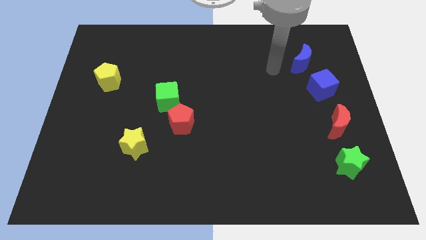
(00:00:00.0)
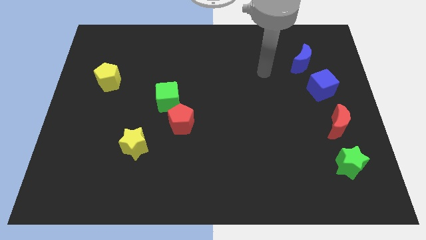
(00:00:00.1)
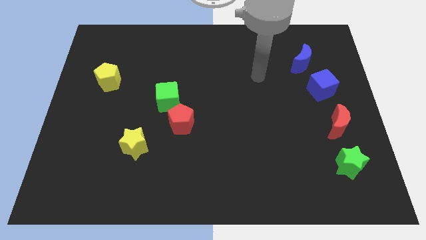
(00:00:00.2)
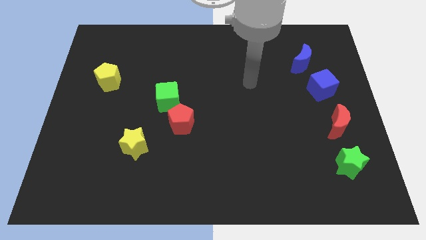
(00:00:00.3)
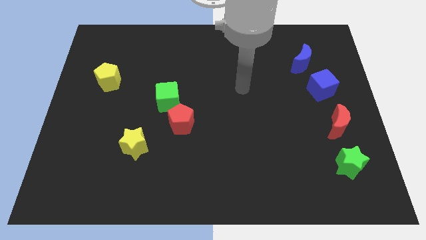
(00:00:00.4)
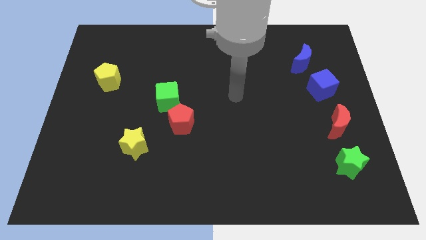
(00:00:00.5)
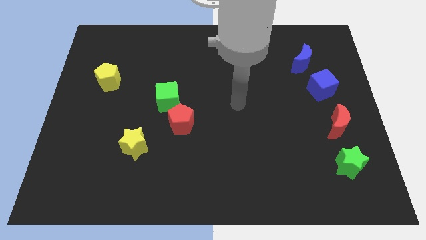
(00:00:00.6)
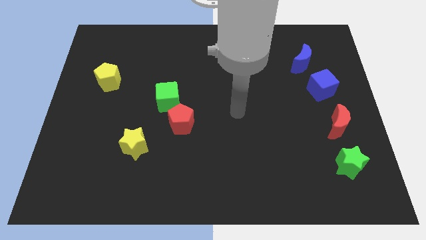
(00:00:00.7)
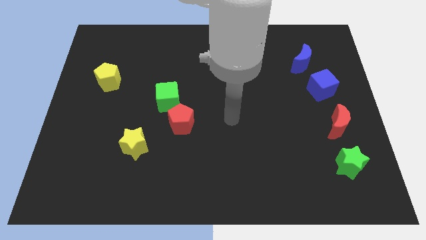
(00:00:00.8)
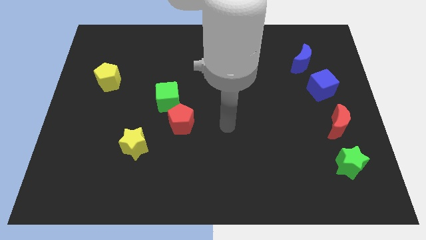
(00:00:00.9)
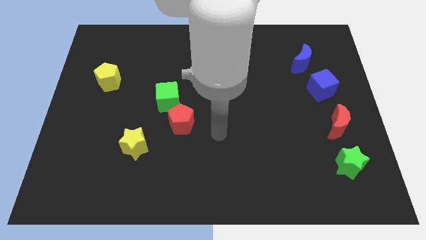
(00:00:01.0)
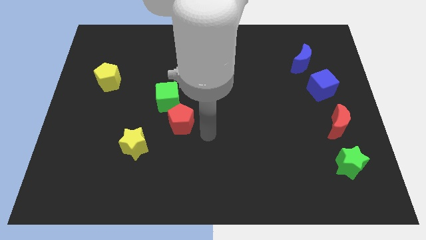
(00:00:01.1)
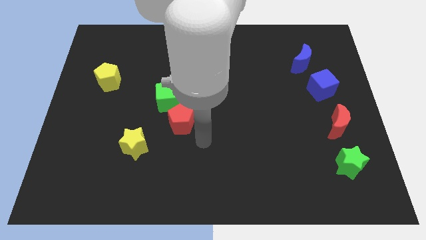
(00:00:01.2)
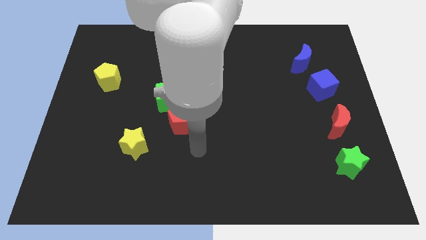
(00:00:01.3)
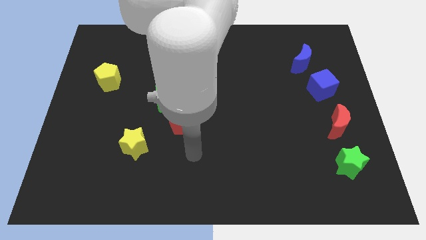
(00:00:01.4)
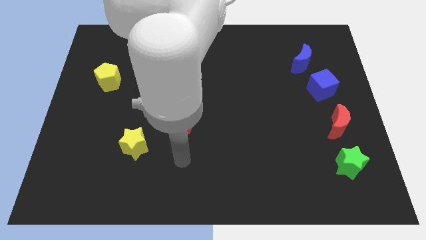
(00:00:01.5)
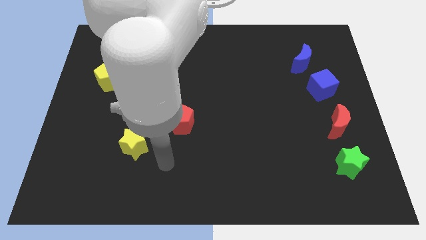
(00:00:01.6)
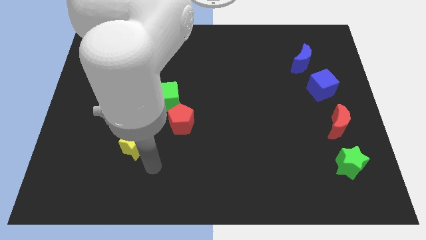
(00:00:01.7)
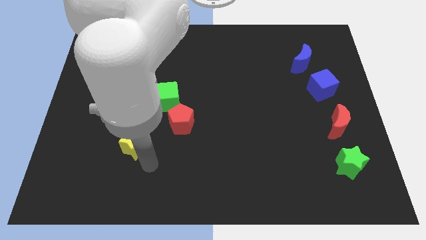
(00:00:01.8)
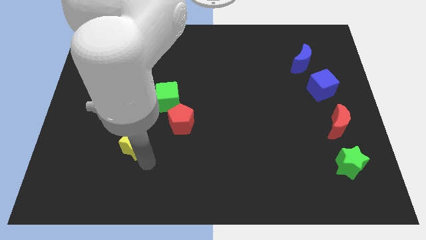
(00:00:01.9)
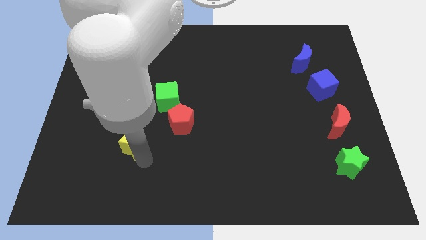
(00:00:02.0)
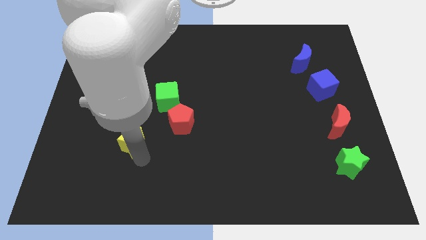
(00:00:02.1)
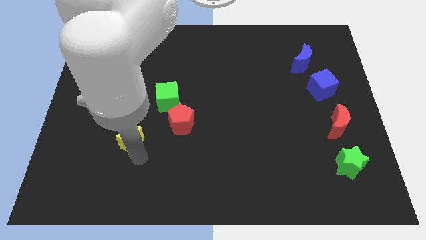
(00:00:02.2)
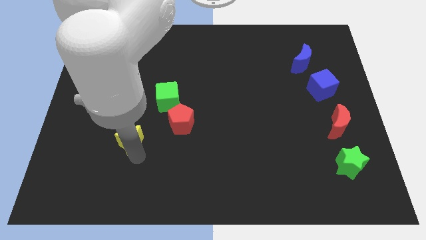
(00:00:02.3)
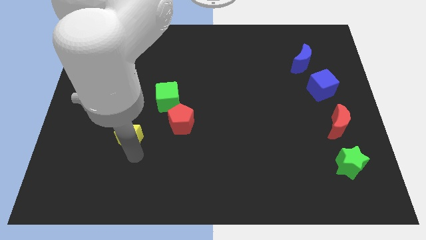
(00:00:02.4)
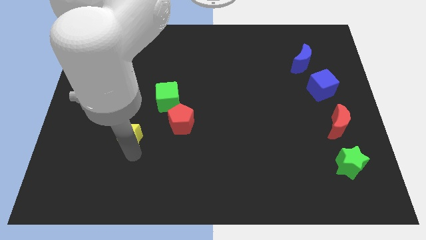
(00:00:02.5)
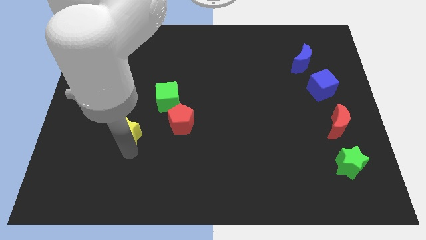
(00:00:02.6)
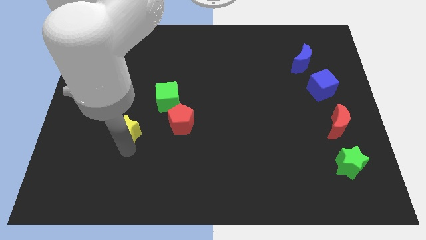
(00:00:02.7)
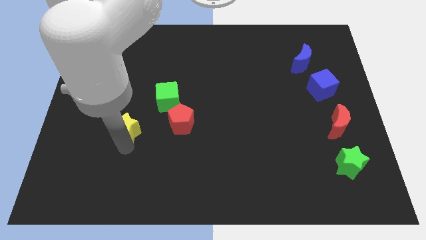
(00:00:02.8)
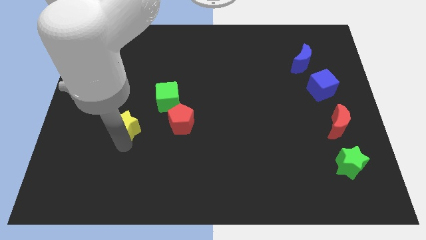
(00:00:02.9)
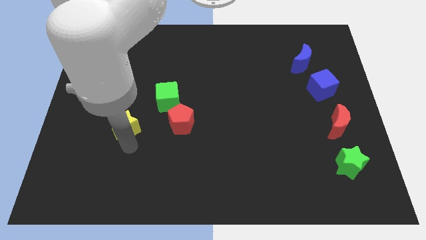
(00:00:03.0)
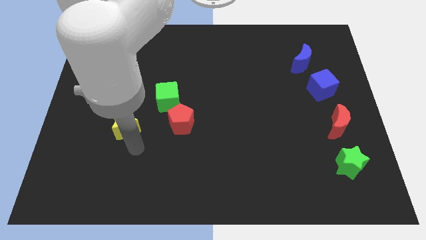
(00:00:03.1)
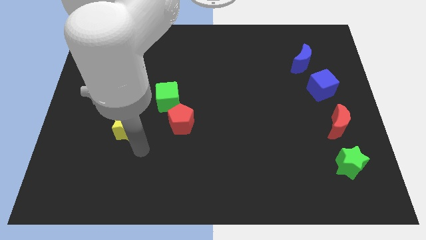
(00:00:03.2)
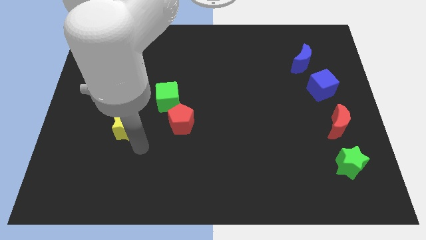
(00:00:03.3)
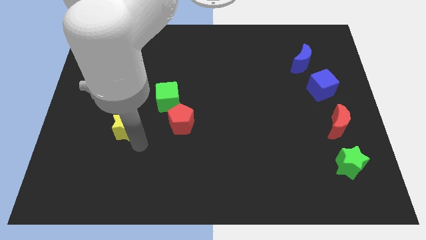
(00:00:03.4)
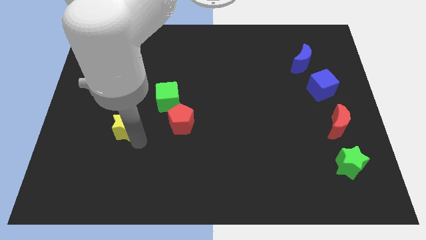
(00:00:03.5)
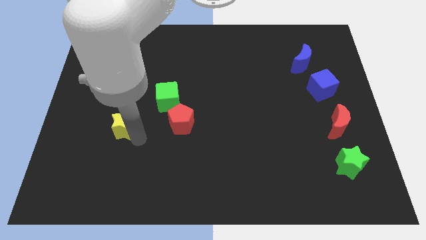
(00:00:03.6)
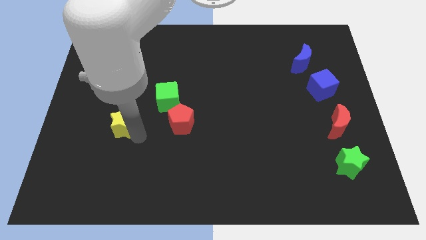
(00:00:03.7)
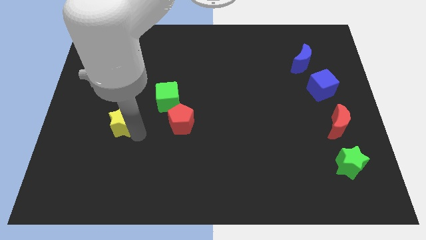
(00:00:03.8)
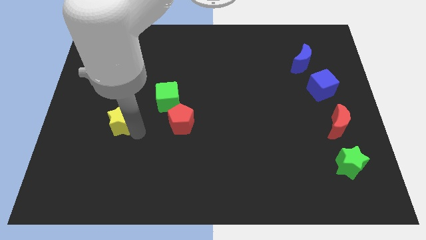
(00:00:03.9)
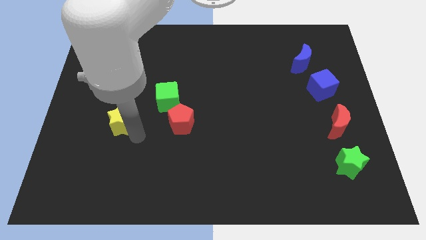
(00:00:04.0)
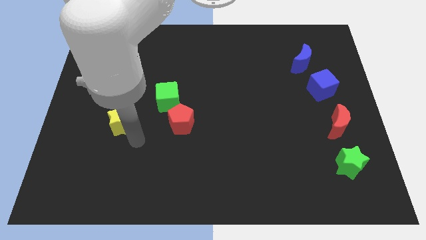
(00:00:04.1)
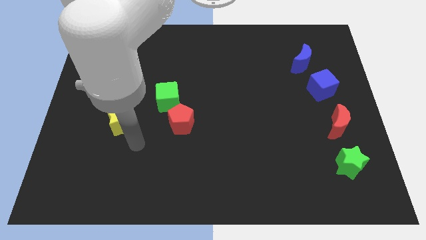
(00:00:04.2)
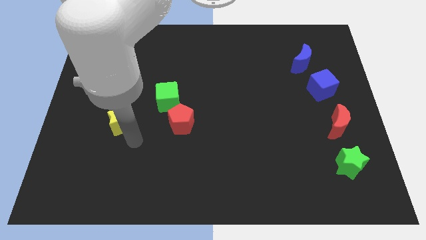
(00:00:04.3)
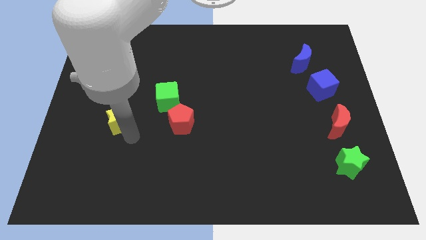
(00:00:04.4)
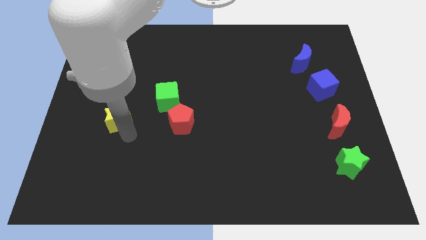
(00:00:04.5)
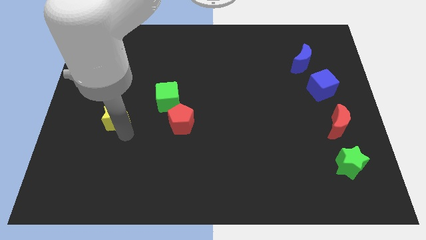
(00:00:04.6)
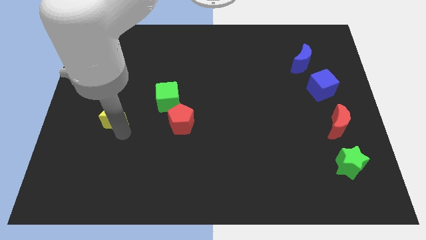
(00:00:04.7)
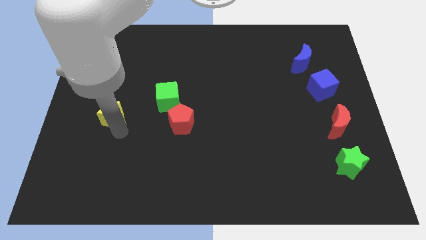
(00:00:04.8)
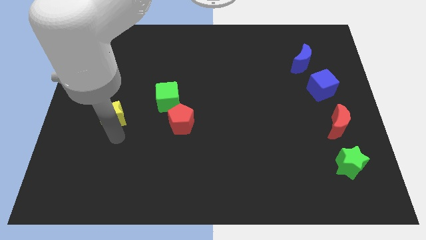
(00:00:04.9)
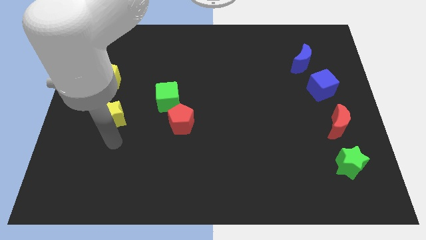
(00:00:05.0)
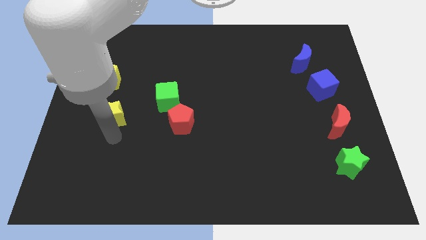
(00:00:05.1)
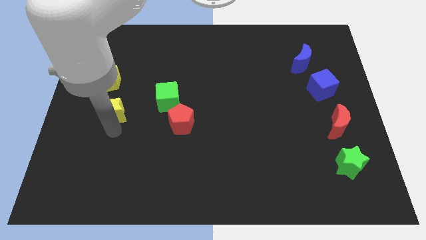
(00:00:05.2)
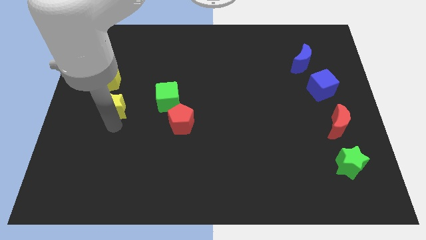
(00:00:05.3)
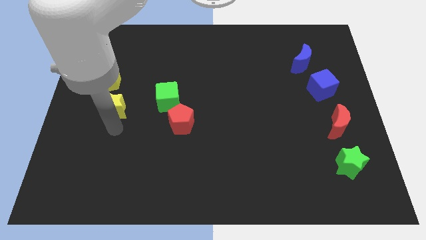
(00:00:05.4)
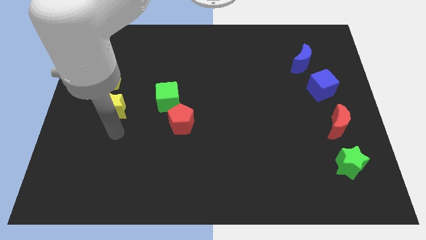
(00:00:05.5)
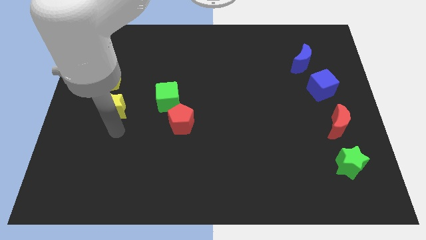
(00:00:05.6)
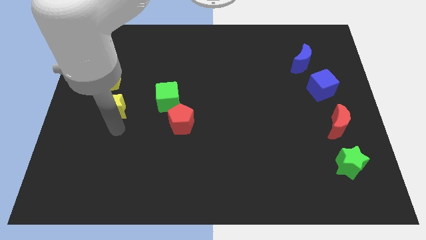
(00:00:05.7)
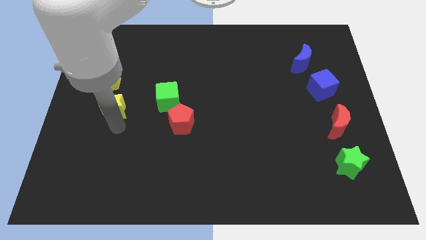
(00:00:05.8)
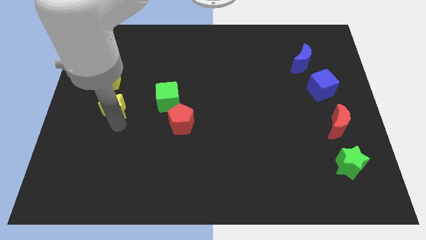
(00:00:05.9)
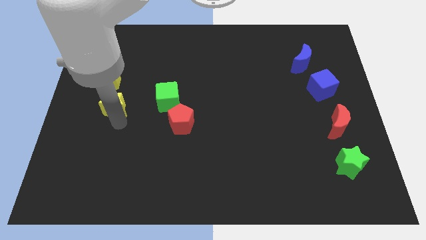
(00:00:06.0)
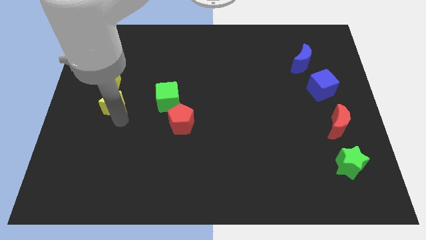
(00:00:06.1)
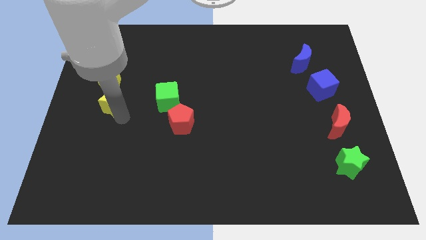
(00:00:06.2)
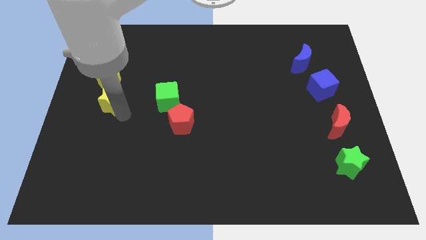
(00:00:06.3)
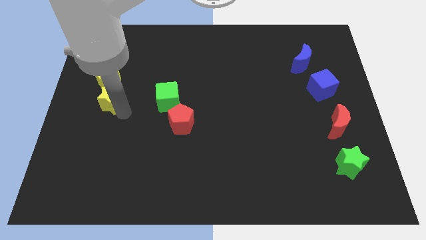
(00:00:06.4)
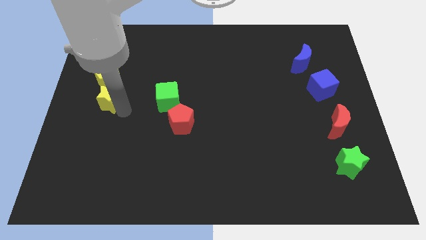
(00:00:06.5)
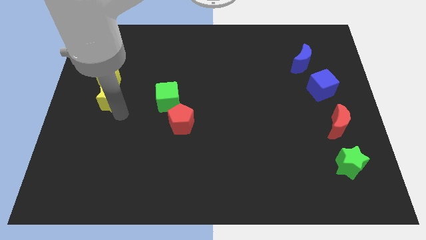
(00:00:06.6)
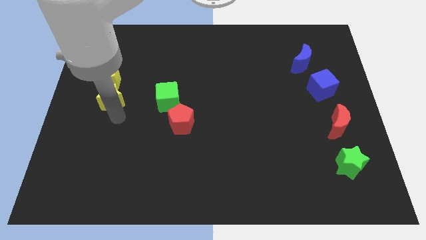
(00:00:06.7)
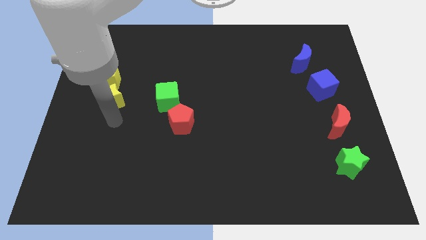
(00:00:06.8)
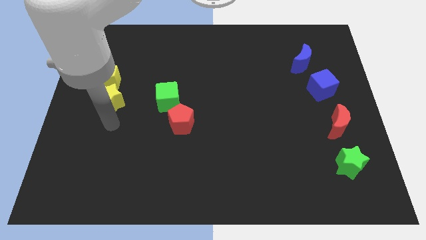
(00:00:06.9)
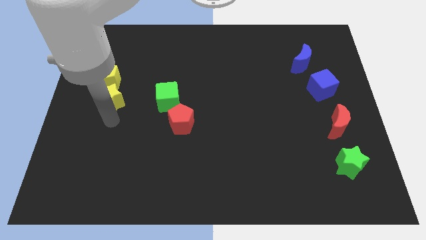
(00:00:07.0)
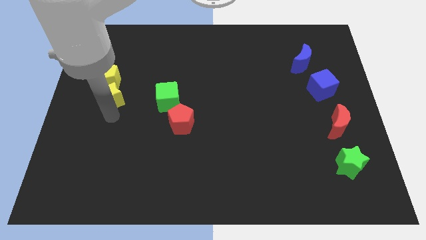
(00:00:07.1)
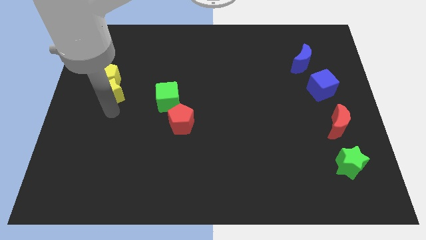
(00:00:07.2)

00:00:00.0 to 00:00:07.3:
put the yellow star towards the yellow pentagon
